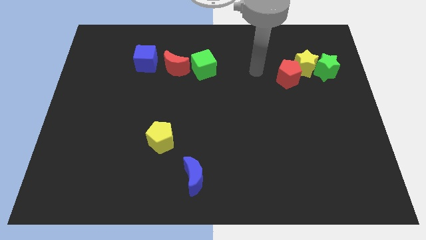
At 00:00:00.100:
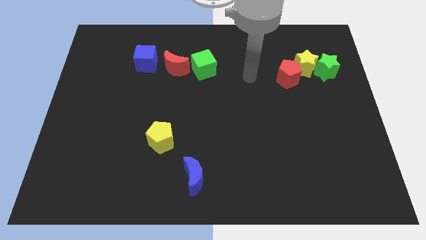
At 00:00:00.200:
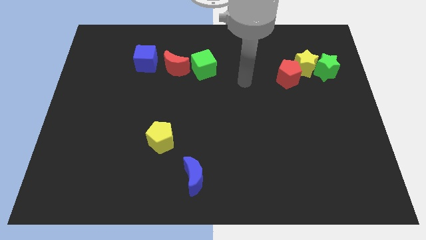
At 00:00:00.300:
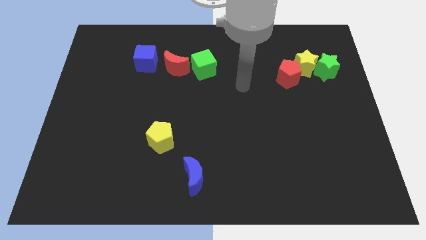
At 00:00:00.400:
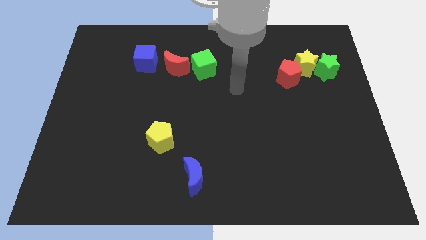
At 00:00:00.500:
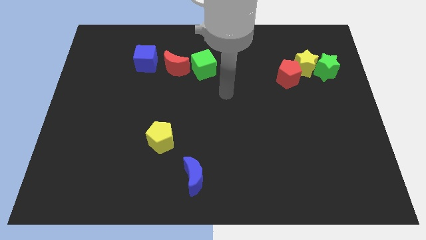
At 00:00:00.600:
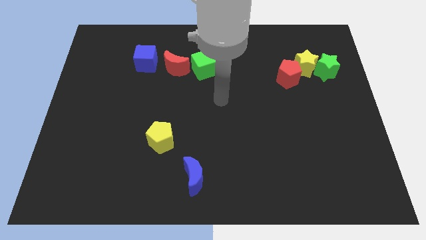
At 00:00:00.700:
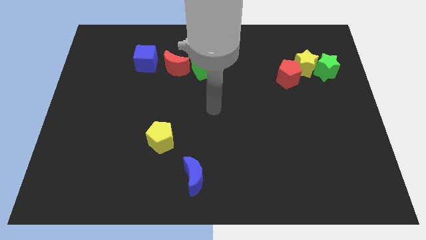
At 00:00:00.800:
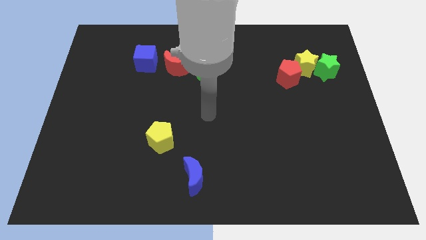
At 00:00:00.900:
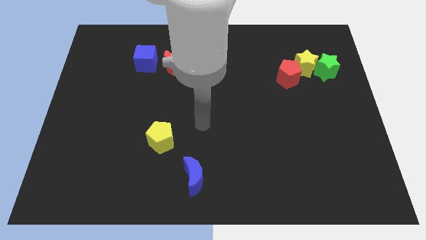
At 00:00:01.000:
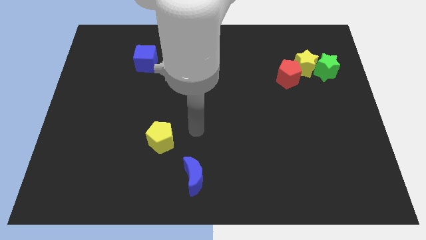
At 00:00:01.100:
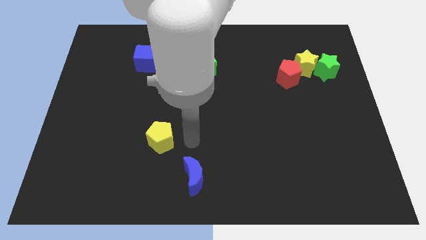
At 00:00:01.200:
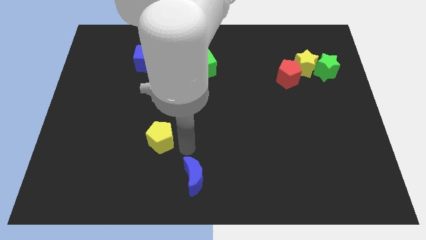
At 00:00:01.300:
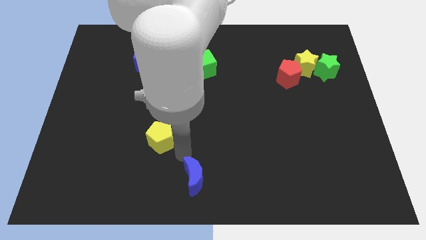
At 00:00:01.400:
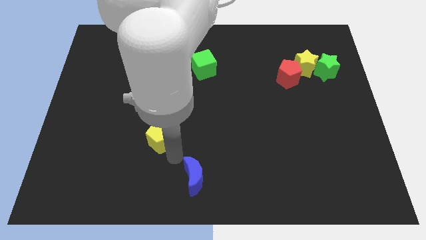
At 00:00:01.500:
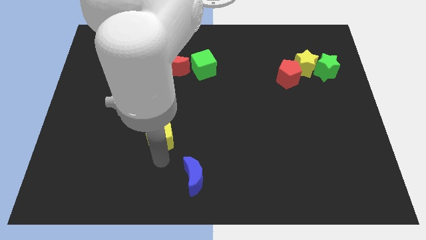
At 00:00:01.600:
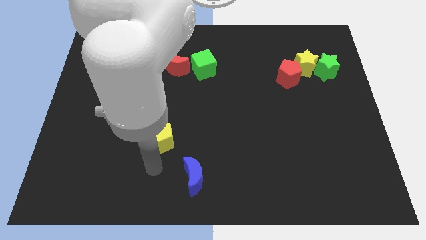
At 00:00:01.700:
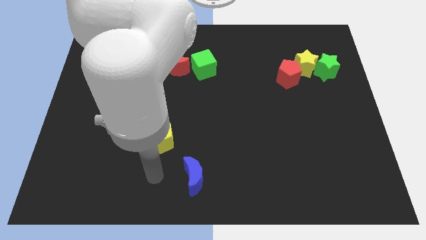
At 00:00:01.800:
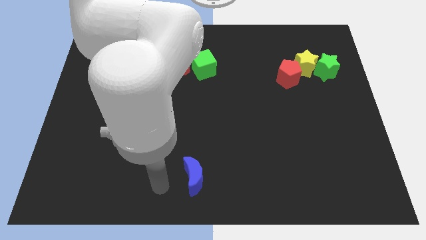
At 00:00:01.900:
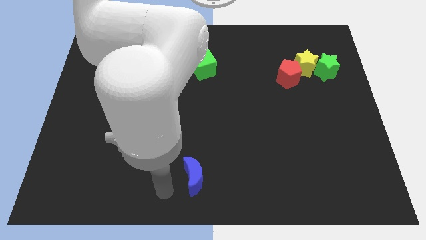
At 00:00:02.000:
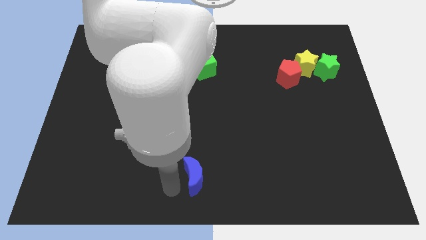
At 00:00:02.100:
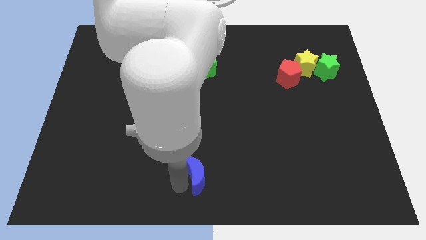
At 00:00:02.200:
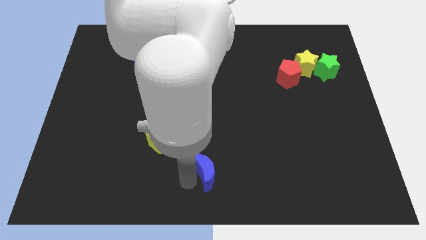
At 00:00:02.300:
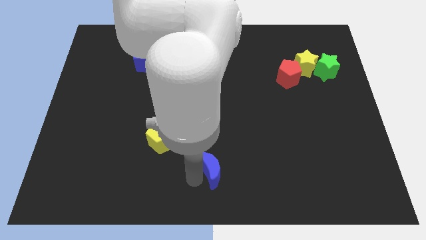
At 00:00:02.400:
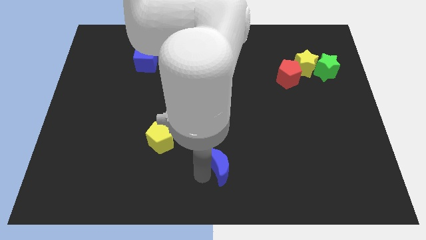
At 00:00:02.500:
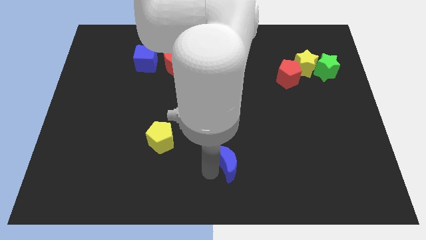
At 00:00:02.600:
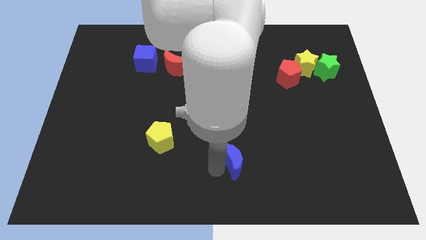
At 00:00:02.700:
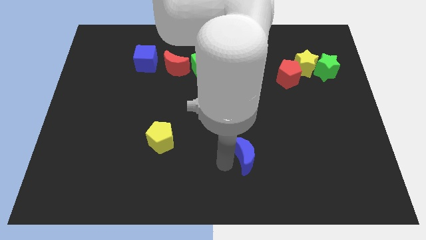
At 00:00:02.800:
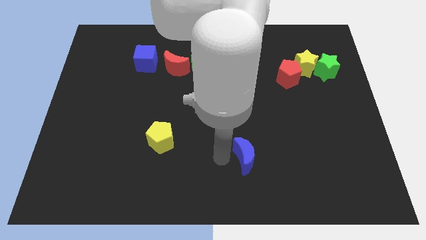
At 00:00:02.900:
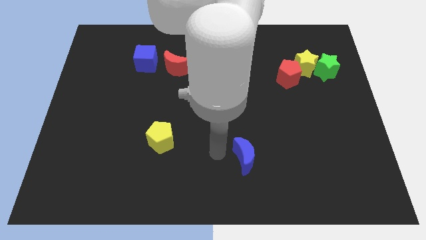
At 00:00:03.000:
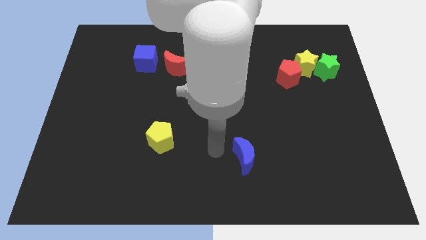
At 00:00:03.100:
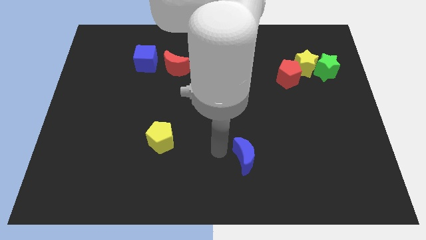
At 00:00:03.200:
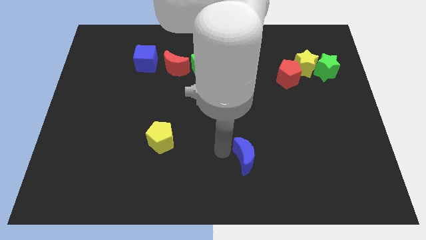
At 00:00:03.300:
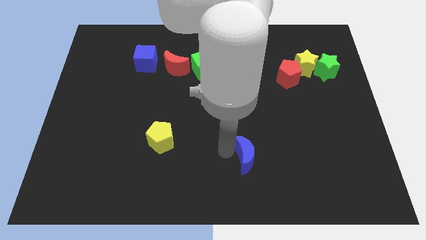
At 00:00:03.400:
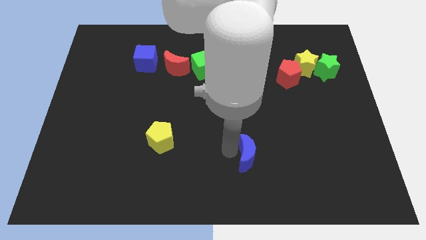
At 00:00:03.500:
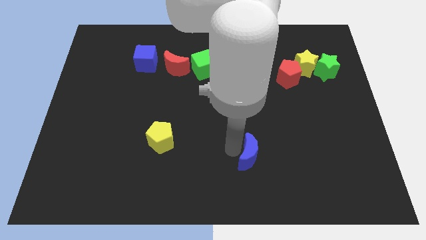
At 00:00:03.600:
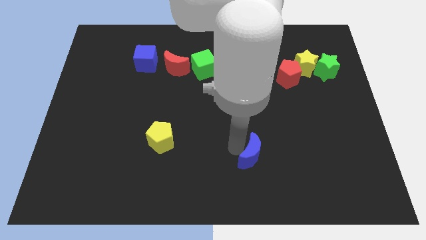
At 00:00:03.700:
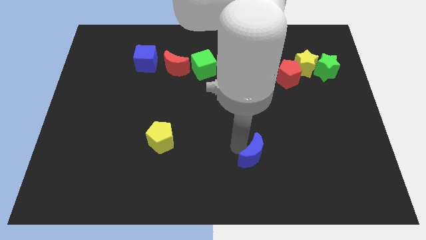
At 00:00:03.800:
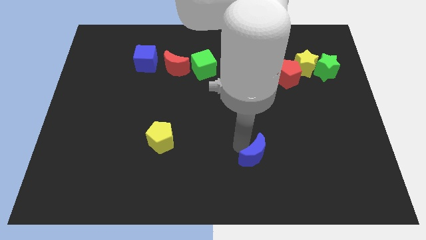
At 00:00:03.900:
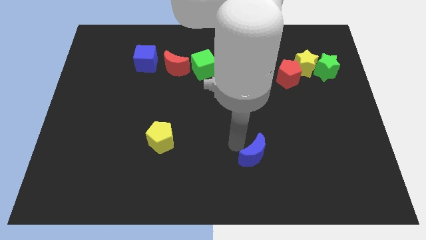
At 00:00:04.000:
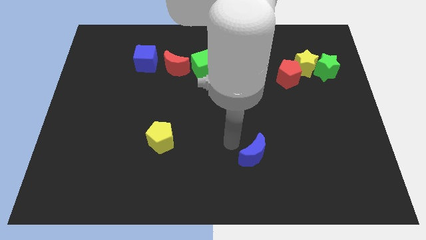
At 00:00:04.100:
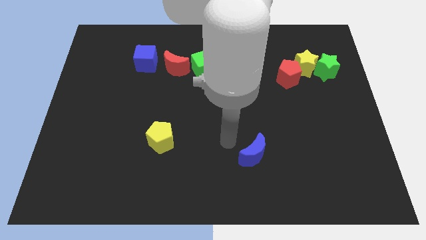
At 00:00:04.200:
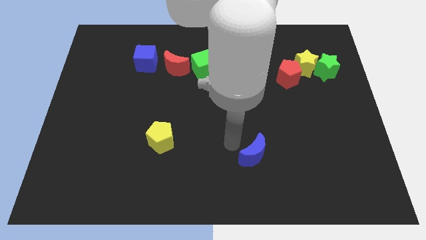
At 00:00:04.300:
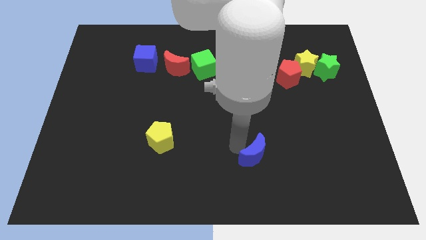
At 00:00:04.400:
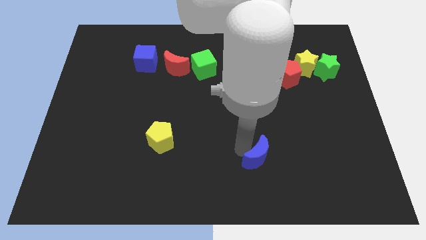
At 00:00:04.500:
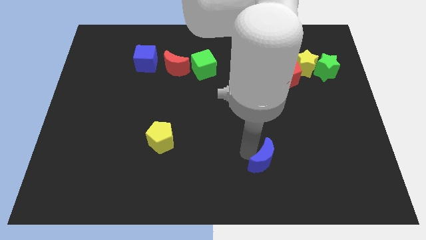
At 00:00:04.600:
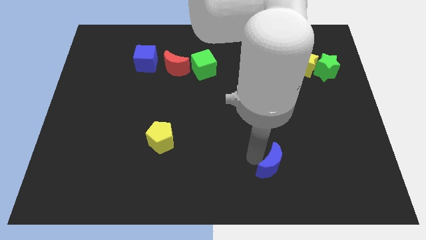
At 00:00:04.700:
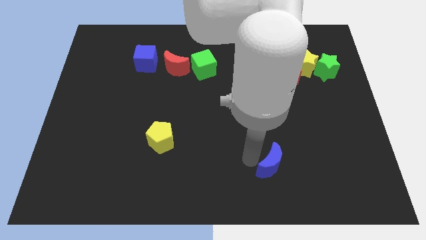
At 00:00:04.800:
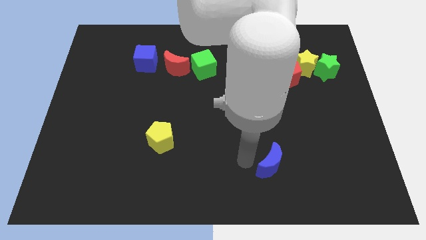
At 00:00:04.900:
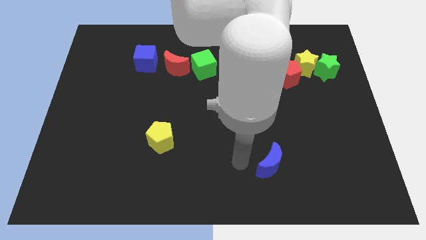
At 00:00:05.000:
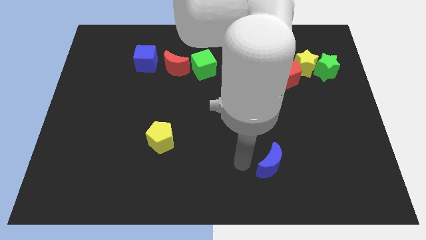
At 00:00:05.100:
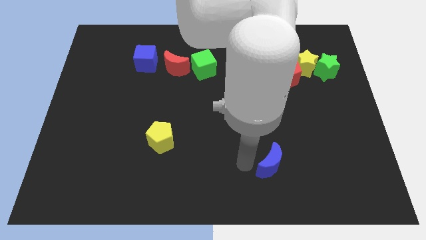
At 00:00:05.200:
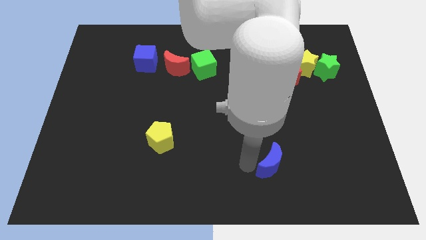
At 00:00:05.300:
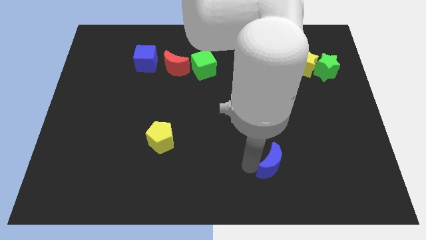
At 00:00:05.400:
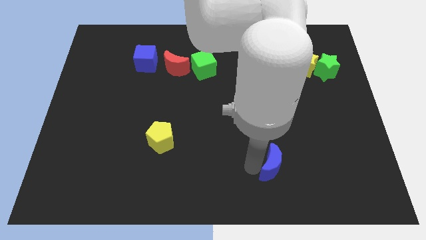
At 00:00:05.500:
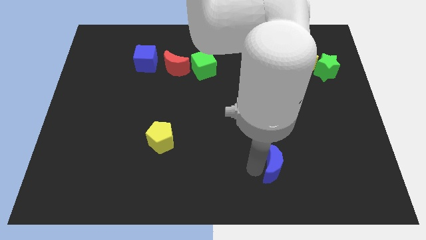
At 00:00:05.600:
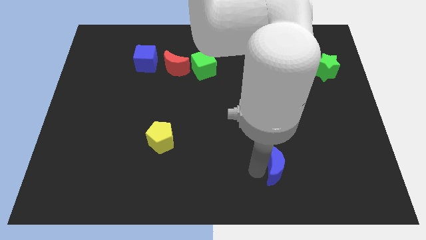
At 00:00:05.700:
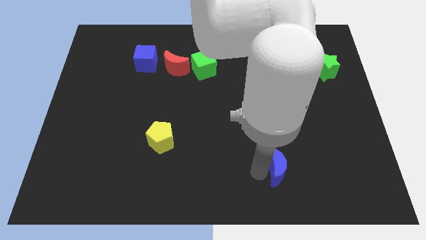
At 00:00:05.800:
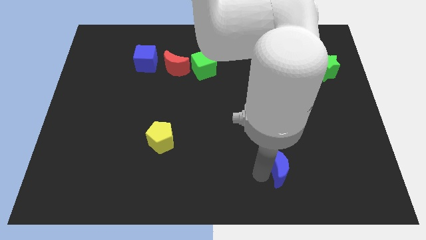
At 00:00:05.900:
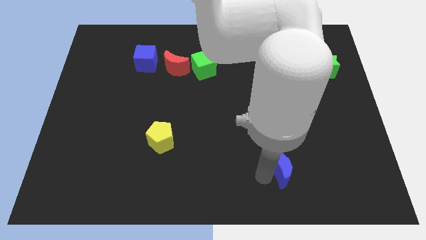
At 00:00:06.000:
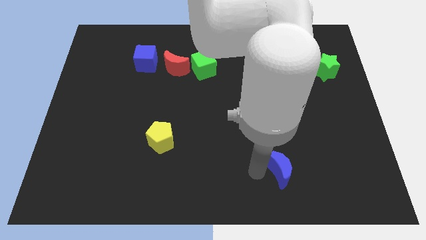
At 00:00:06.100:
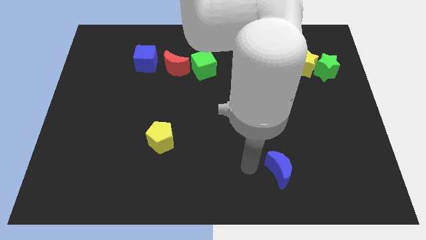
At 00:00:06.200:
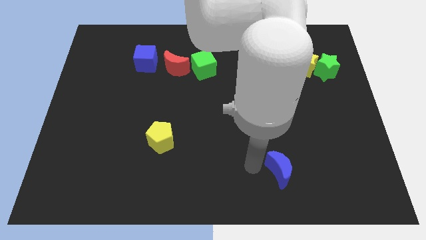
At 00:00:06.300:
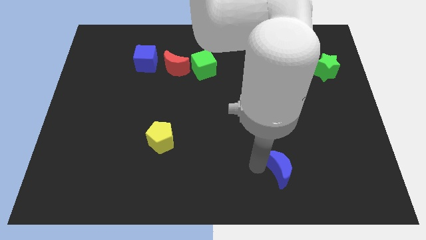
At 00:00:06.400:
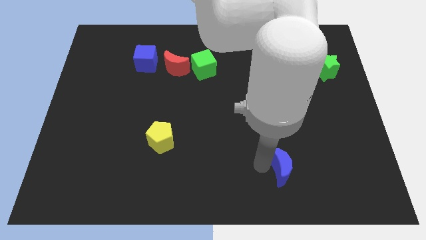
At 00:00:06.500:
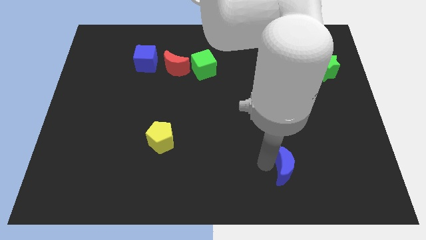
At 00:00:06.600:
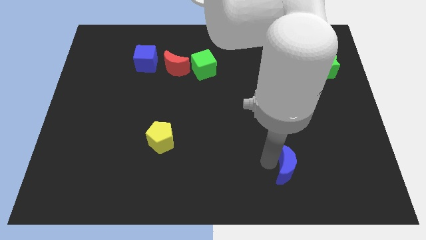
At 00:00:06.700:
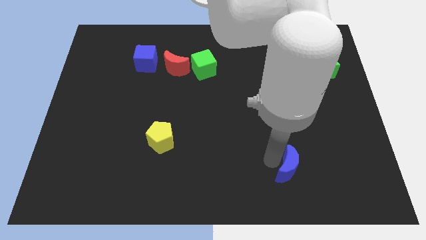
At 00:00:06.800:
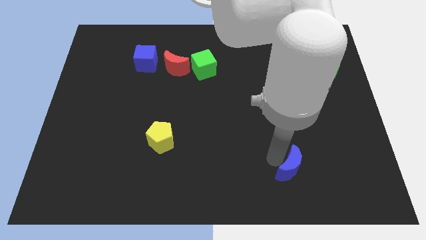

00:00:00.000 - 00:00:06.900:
push the blue moon right

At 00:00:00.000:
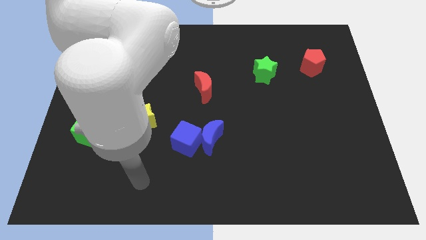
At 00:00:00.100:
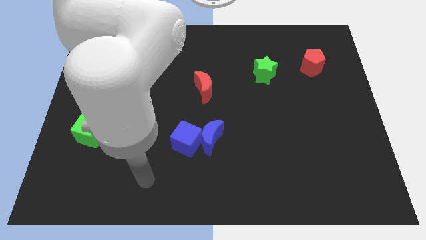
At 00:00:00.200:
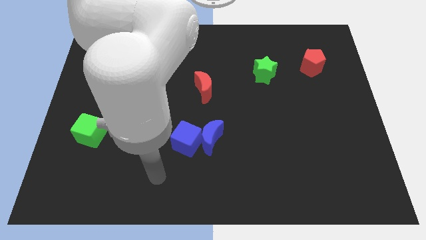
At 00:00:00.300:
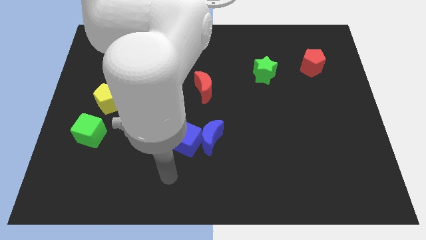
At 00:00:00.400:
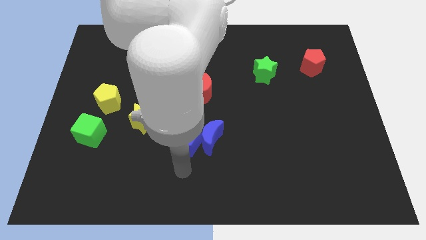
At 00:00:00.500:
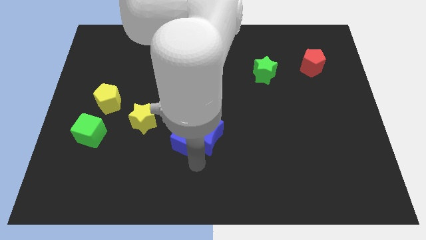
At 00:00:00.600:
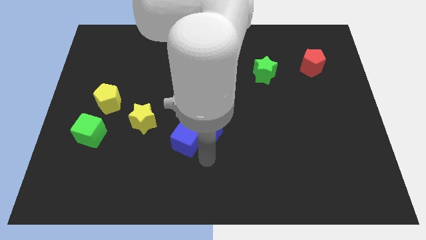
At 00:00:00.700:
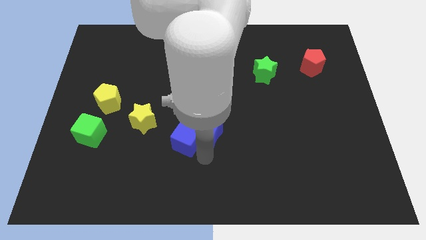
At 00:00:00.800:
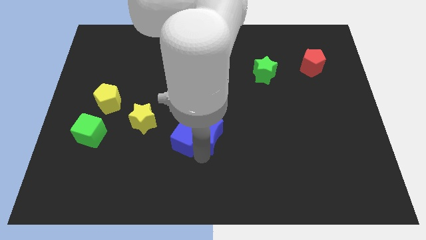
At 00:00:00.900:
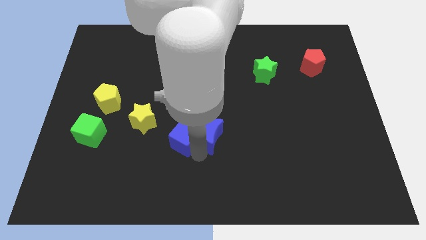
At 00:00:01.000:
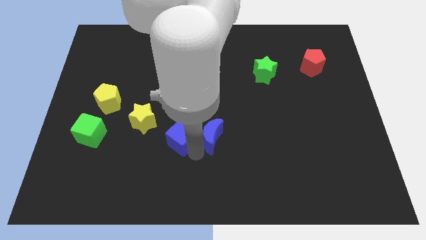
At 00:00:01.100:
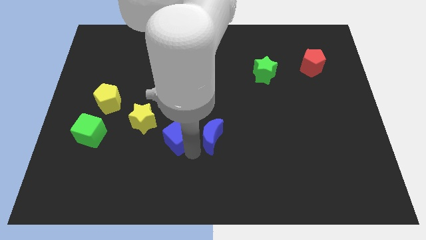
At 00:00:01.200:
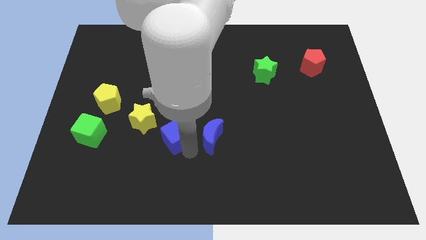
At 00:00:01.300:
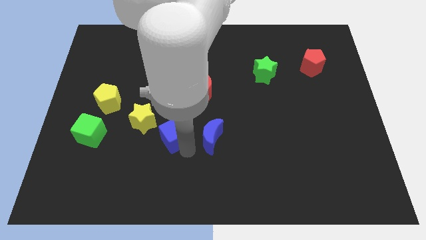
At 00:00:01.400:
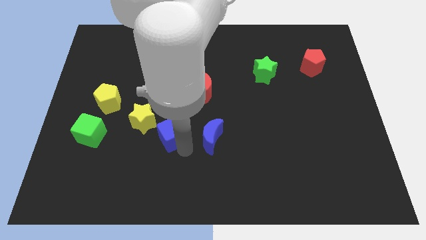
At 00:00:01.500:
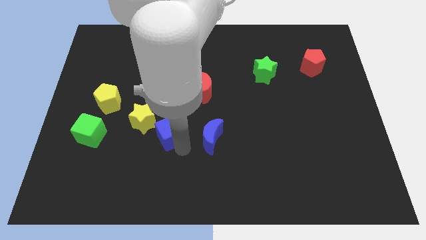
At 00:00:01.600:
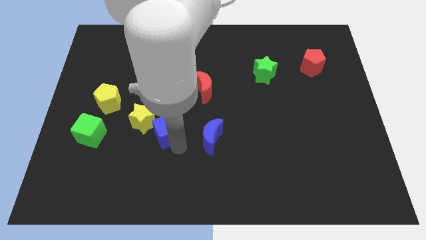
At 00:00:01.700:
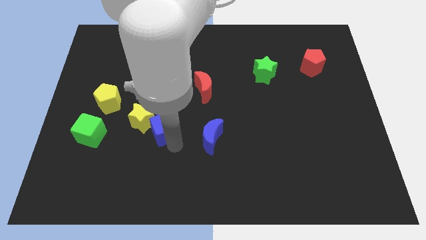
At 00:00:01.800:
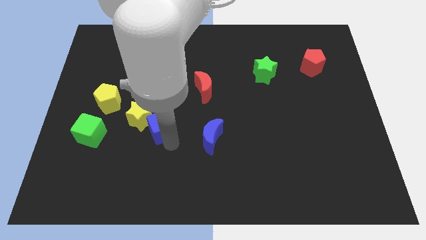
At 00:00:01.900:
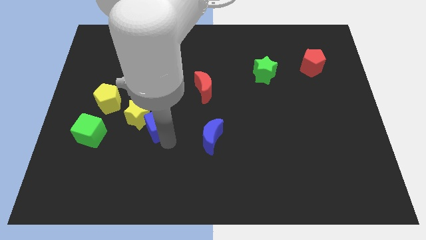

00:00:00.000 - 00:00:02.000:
slide the blue cube a little bit up and then to the left
